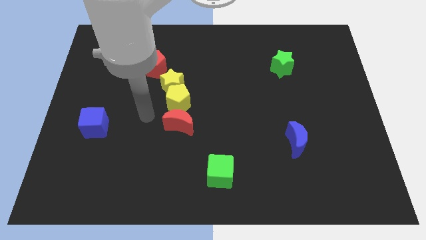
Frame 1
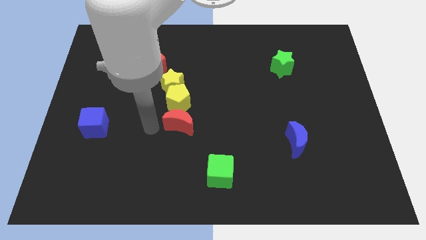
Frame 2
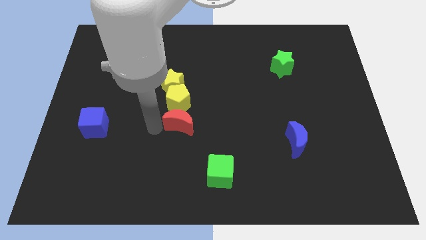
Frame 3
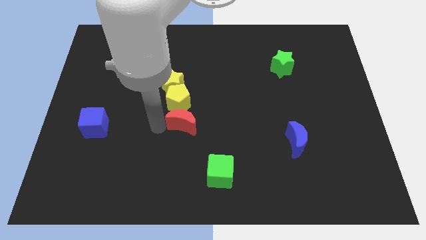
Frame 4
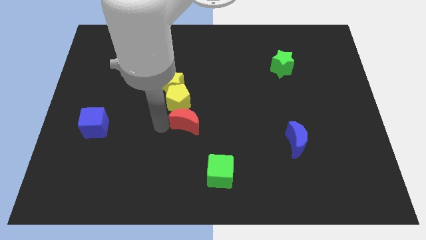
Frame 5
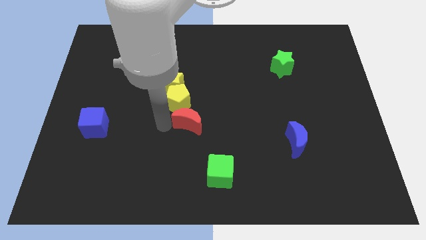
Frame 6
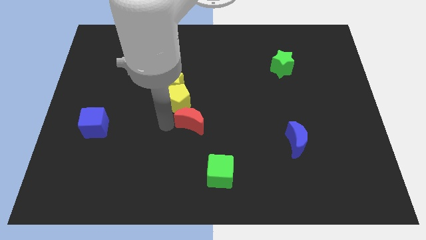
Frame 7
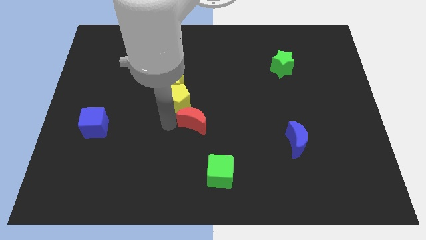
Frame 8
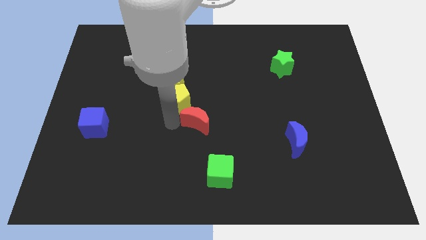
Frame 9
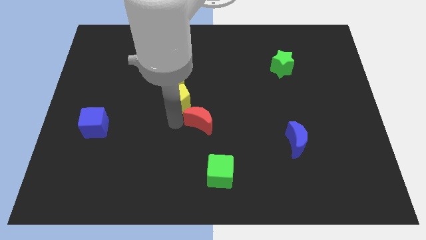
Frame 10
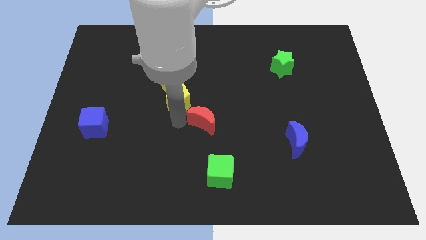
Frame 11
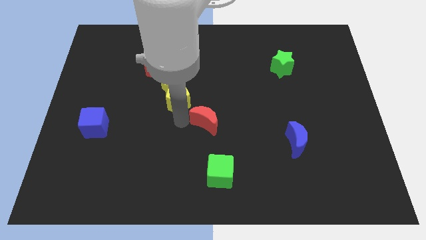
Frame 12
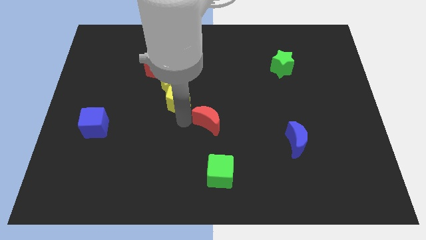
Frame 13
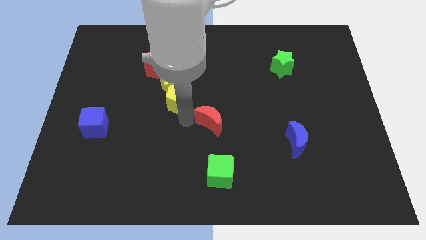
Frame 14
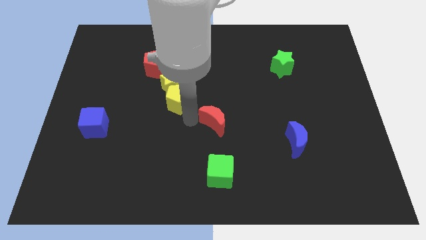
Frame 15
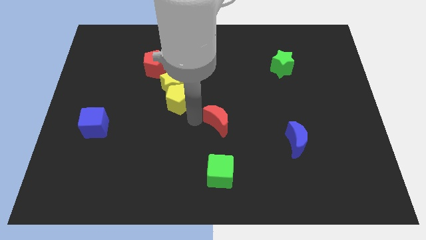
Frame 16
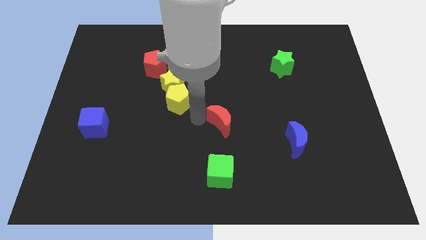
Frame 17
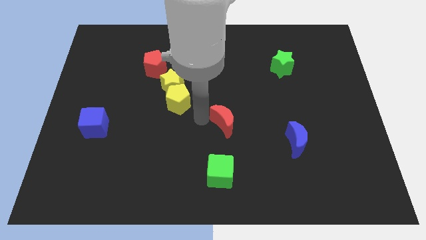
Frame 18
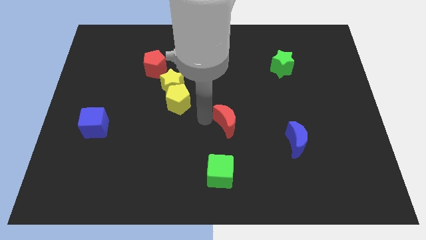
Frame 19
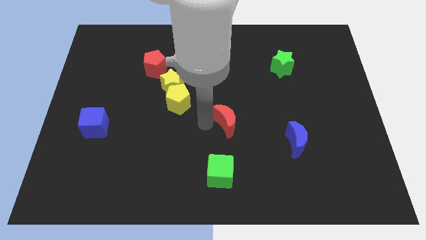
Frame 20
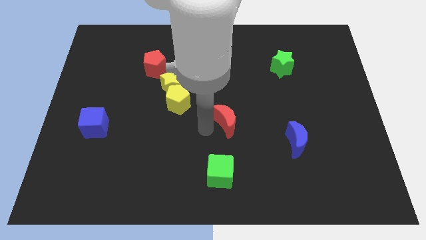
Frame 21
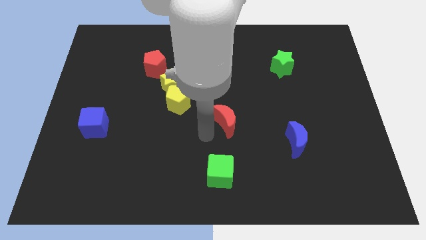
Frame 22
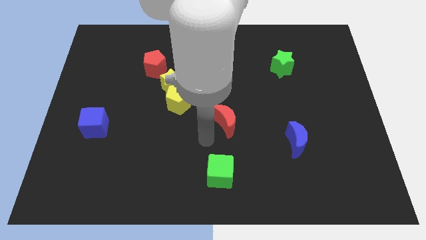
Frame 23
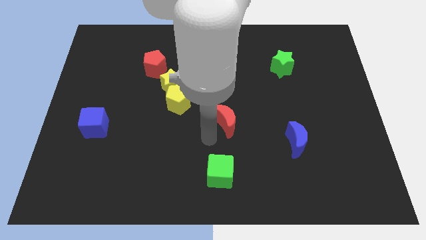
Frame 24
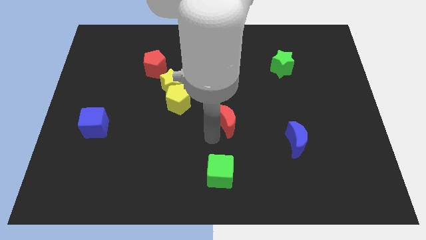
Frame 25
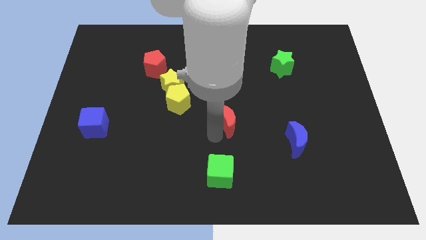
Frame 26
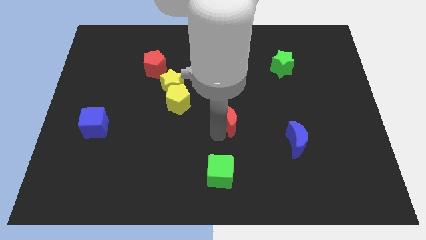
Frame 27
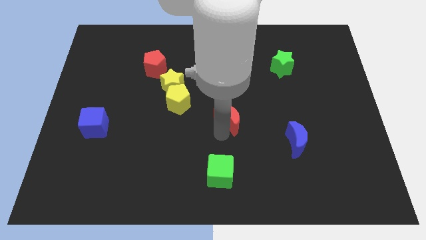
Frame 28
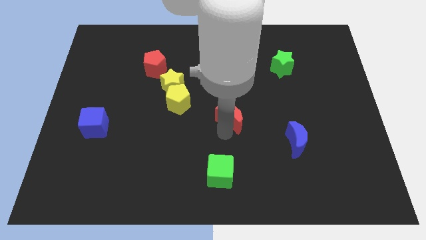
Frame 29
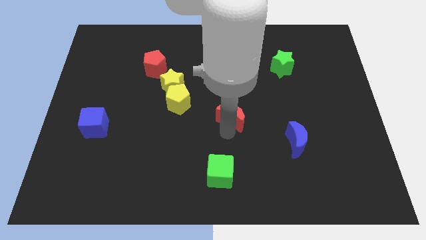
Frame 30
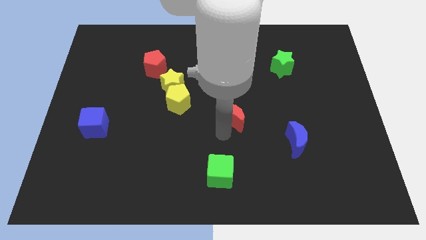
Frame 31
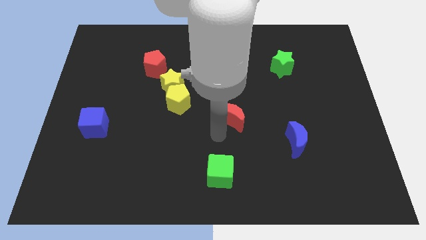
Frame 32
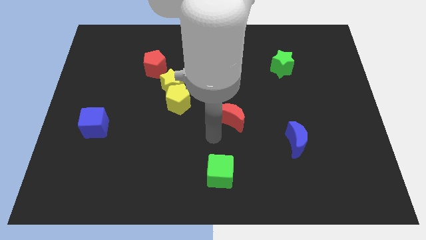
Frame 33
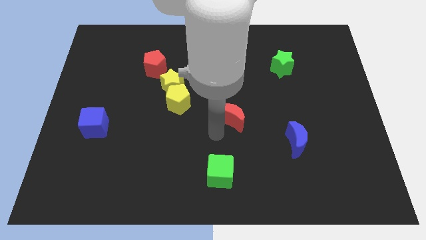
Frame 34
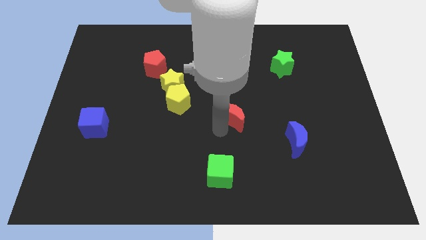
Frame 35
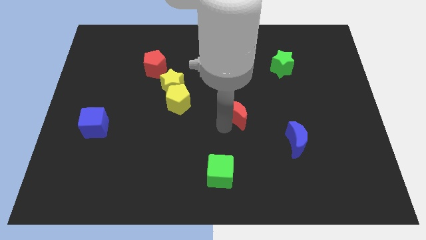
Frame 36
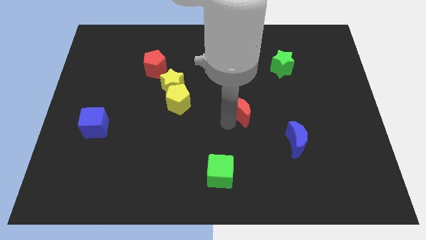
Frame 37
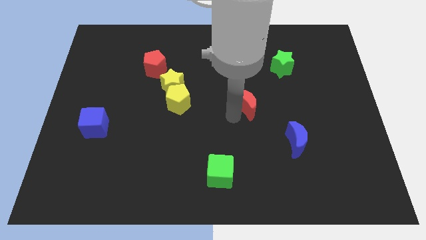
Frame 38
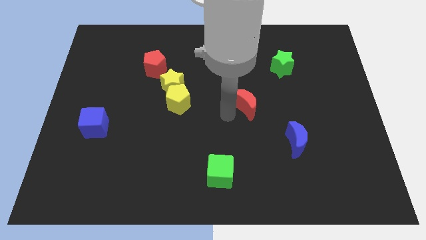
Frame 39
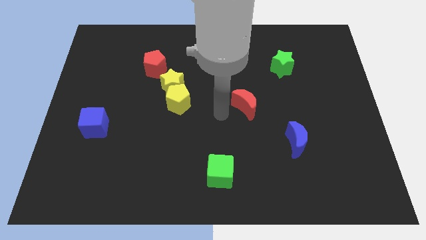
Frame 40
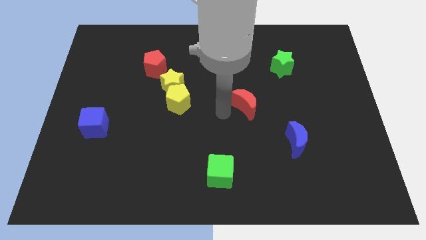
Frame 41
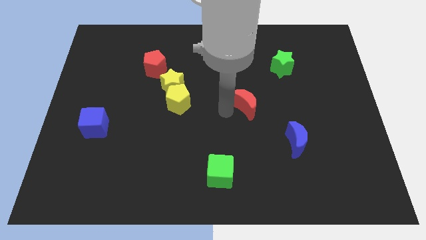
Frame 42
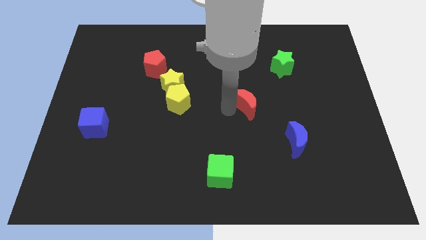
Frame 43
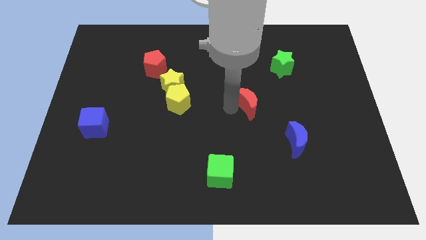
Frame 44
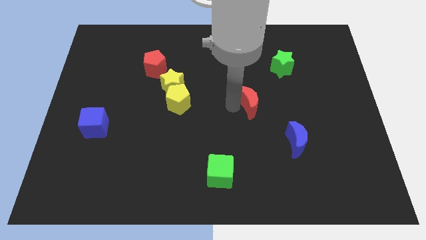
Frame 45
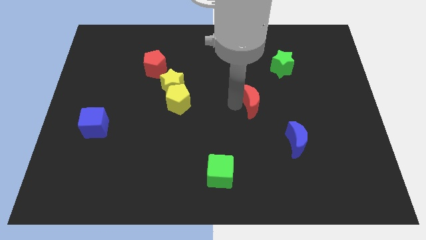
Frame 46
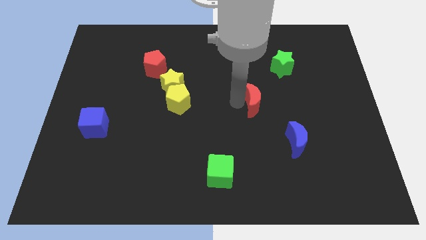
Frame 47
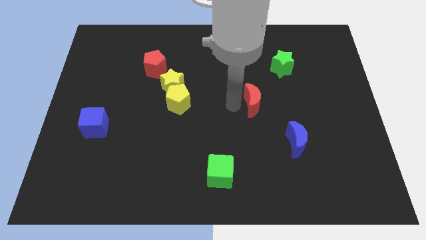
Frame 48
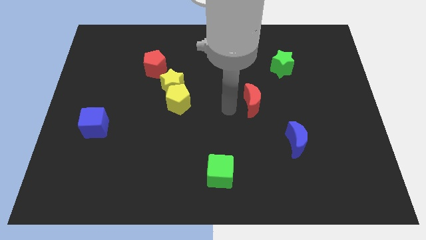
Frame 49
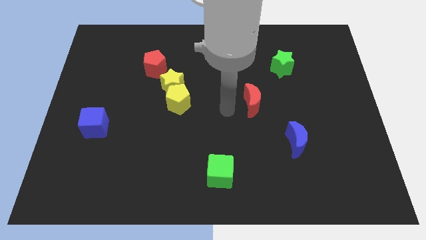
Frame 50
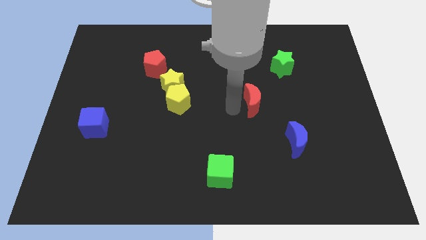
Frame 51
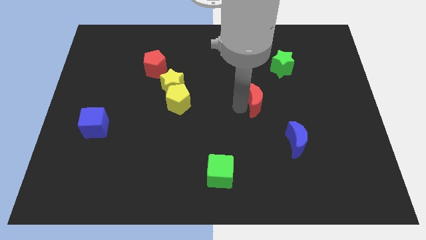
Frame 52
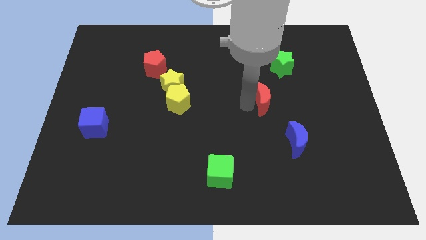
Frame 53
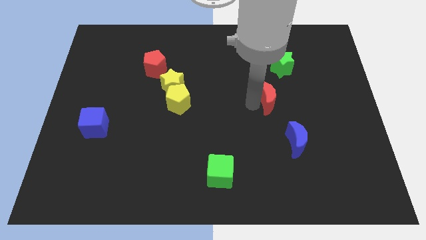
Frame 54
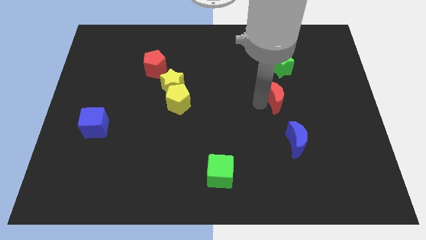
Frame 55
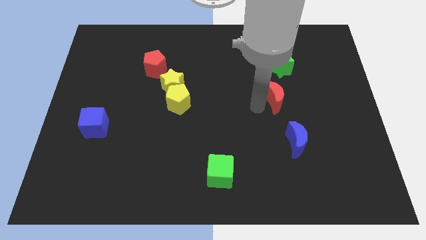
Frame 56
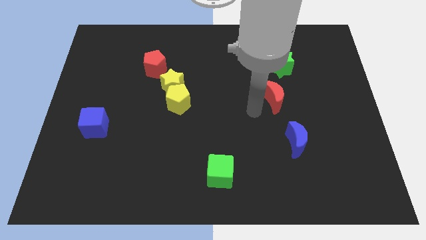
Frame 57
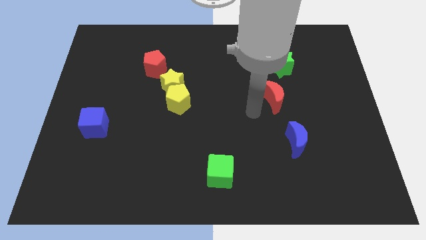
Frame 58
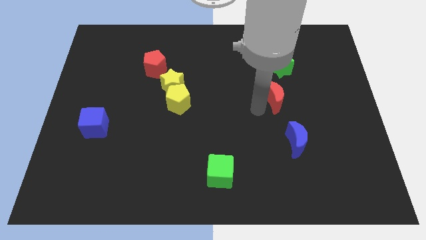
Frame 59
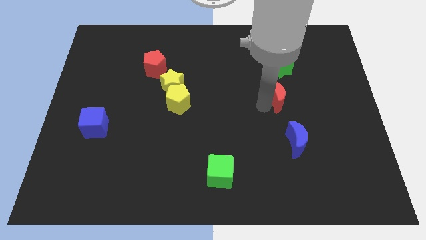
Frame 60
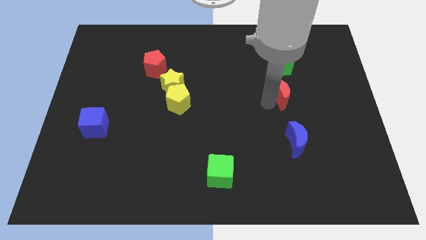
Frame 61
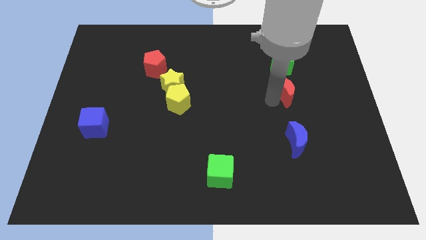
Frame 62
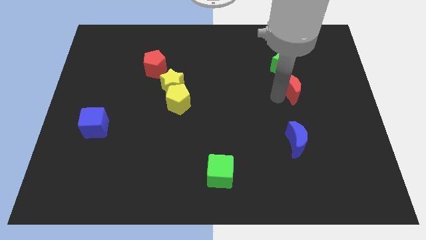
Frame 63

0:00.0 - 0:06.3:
slide the red moon to the bottom right of the green star

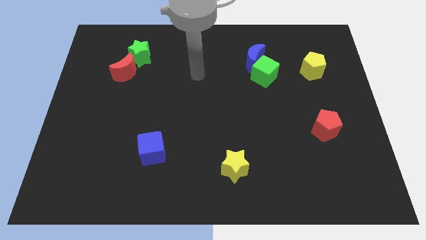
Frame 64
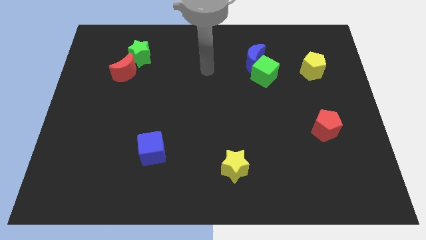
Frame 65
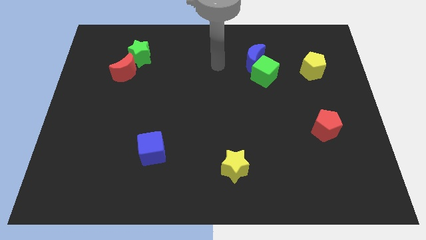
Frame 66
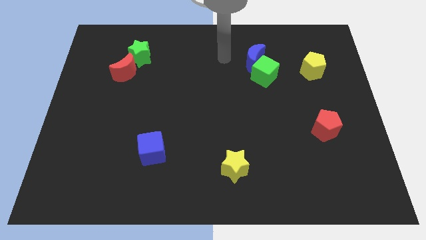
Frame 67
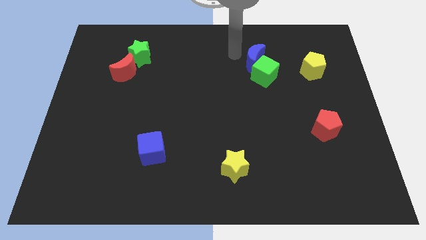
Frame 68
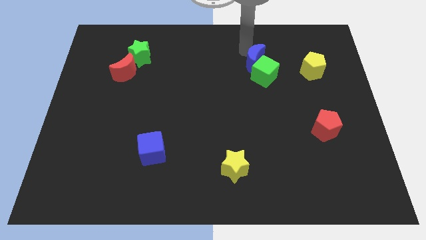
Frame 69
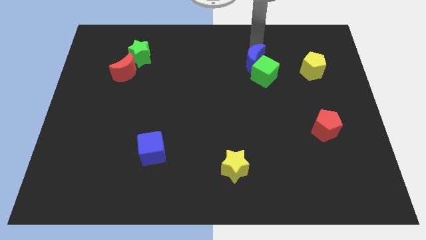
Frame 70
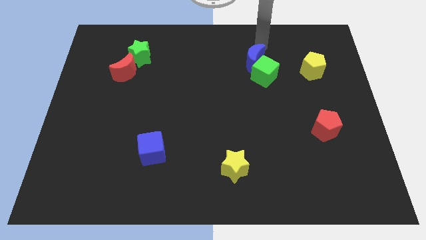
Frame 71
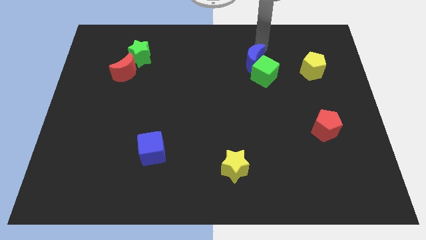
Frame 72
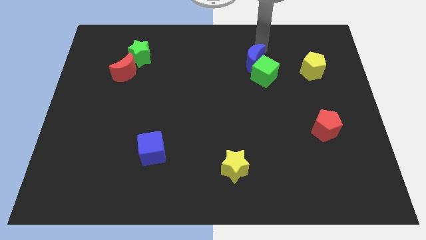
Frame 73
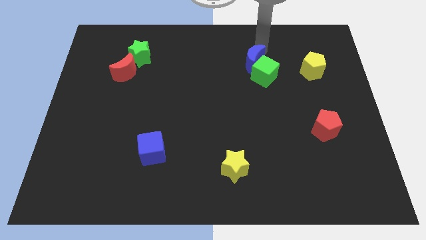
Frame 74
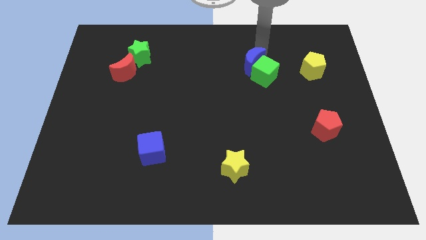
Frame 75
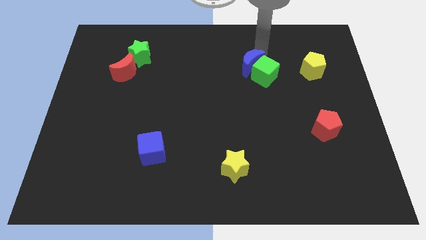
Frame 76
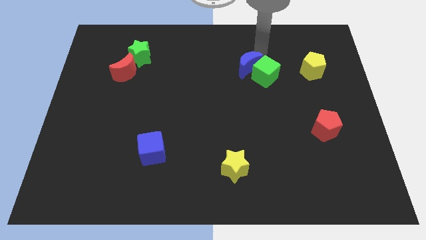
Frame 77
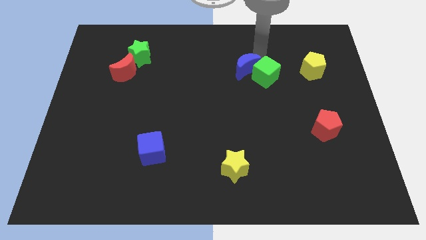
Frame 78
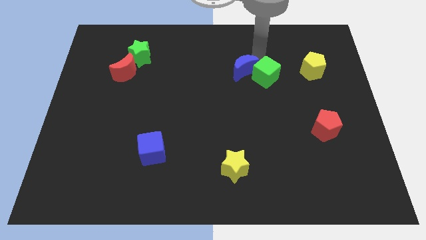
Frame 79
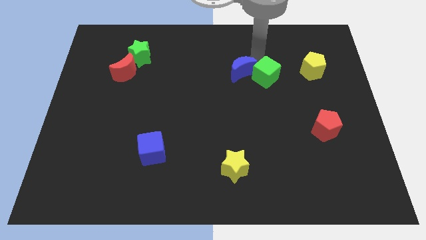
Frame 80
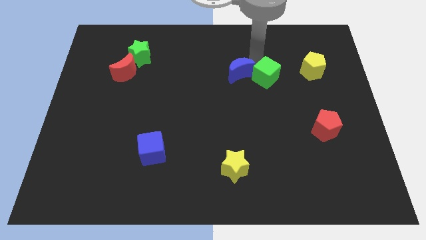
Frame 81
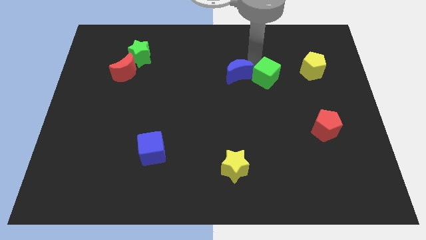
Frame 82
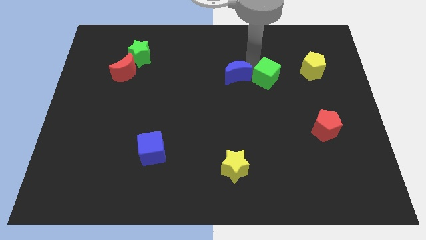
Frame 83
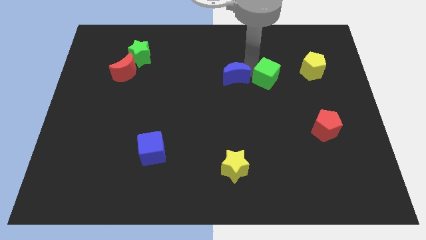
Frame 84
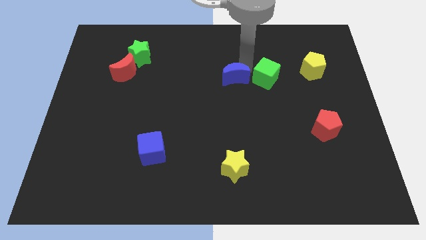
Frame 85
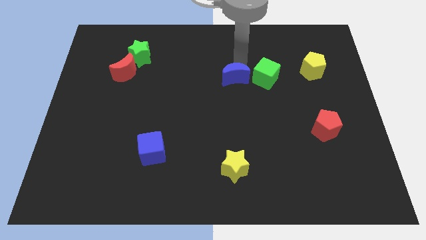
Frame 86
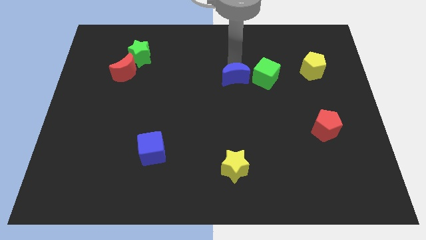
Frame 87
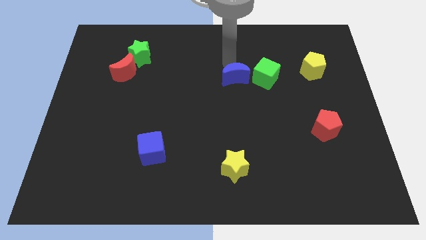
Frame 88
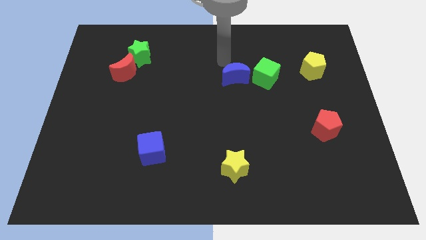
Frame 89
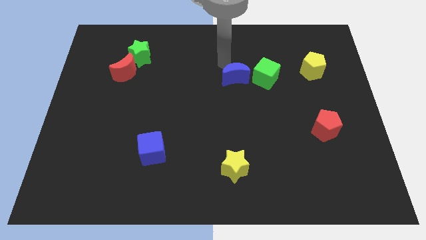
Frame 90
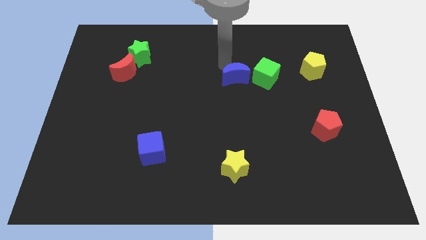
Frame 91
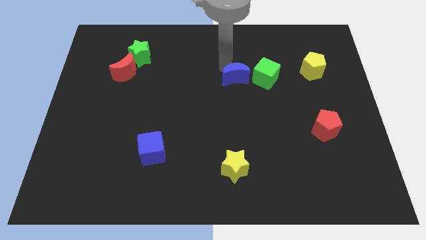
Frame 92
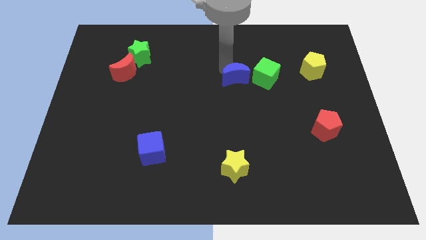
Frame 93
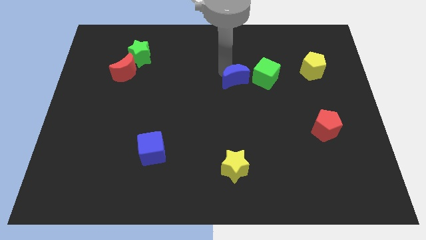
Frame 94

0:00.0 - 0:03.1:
move the blue moon to the bottom left side of the green cube
